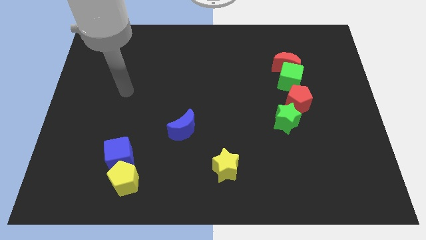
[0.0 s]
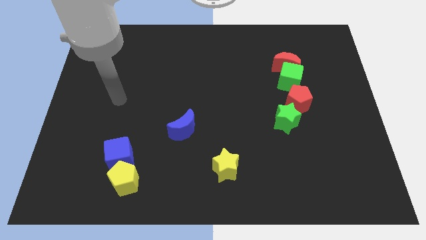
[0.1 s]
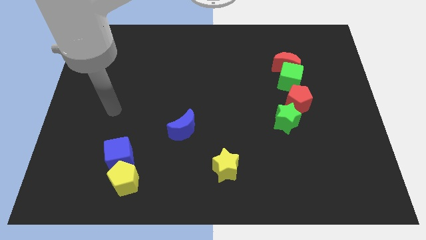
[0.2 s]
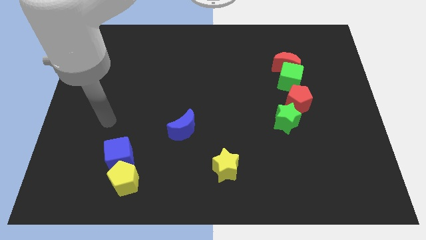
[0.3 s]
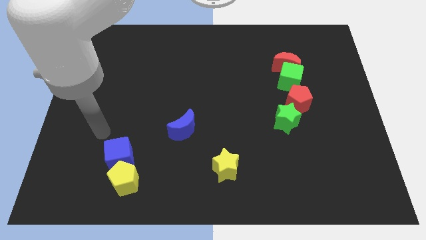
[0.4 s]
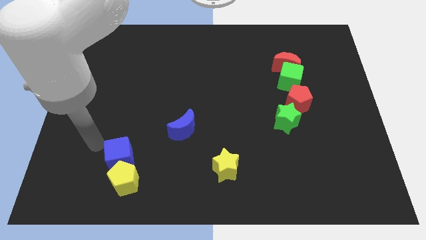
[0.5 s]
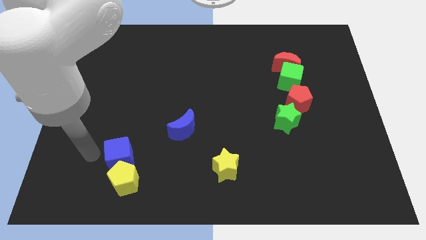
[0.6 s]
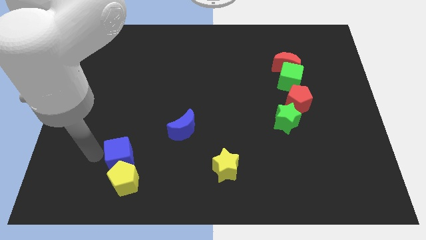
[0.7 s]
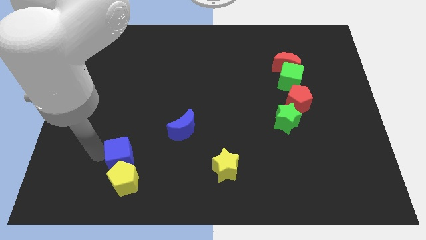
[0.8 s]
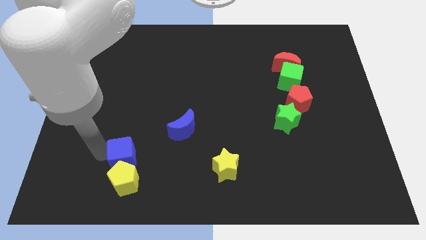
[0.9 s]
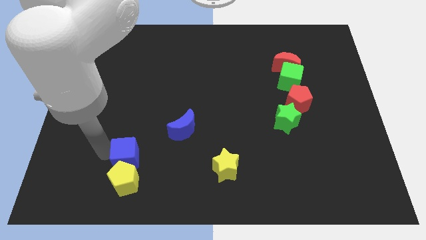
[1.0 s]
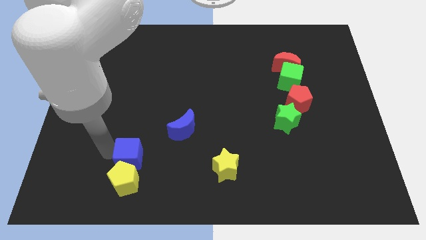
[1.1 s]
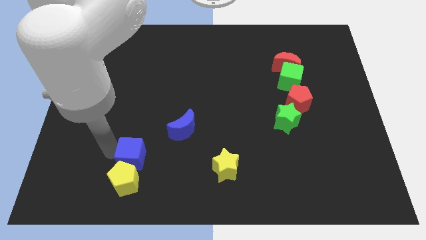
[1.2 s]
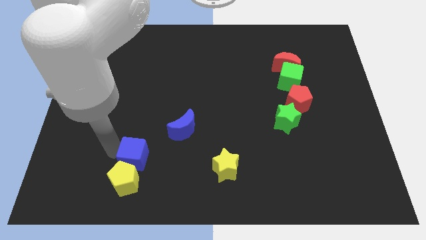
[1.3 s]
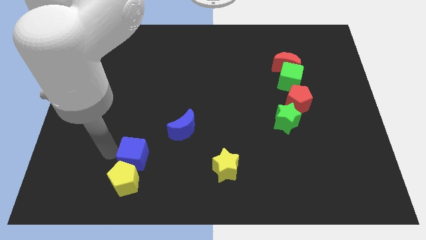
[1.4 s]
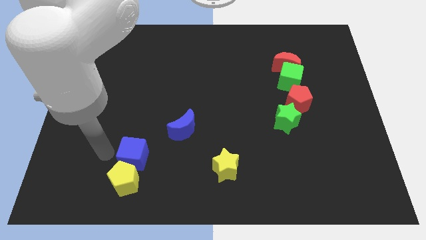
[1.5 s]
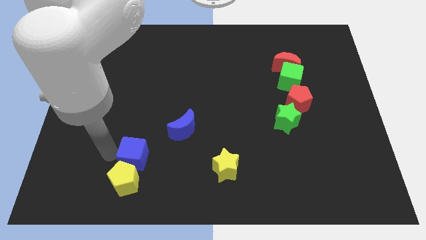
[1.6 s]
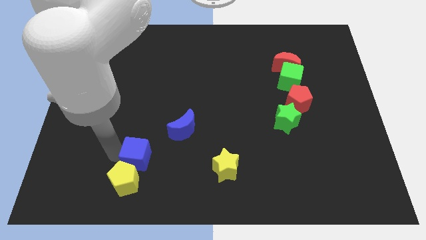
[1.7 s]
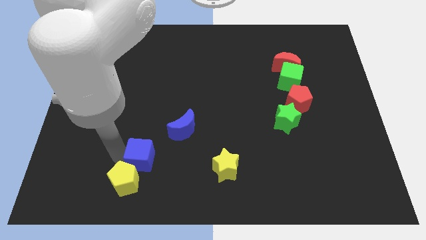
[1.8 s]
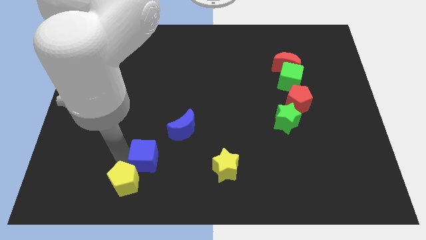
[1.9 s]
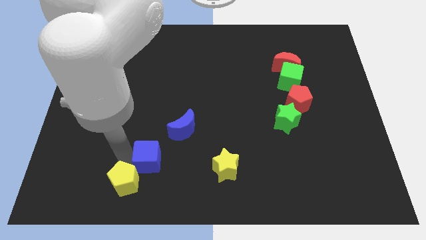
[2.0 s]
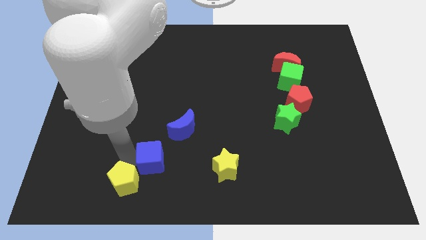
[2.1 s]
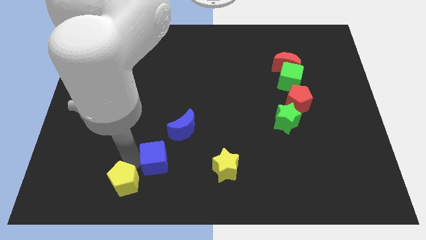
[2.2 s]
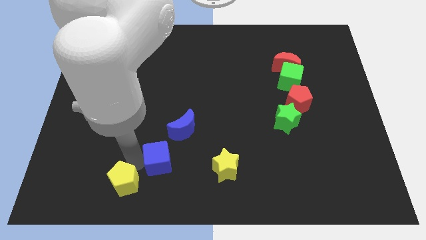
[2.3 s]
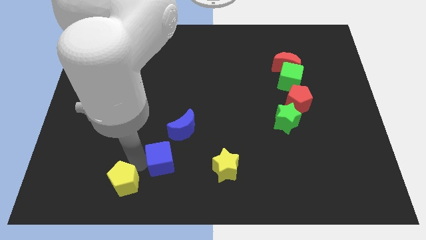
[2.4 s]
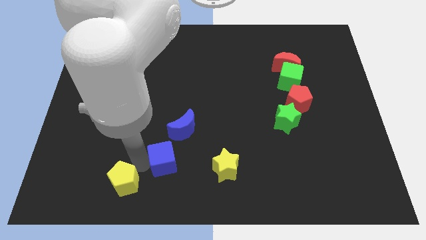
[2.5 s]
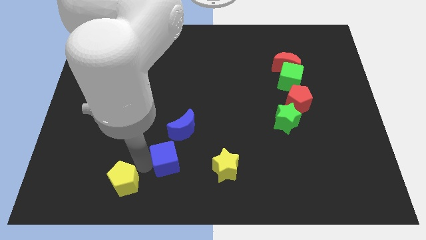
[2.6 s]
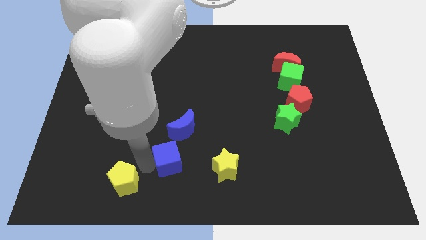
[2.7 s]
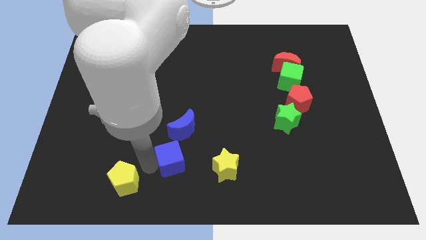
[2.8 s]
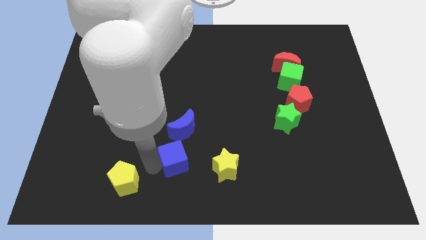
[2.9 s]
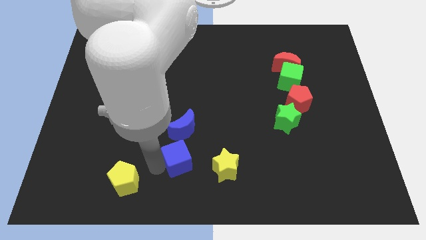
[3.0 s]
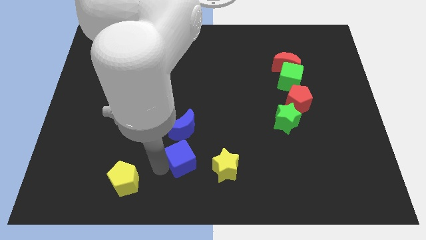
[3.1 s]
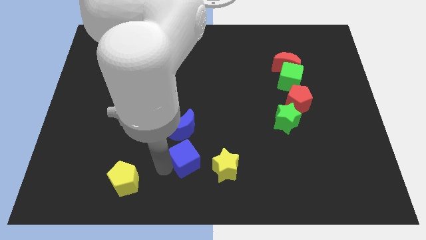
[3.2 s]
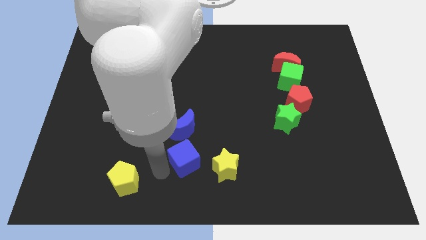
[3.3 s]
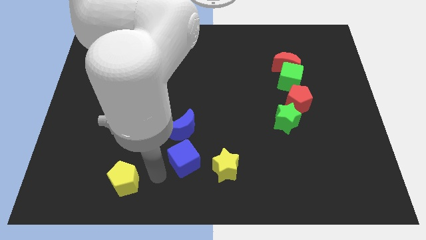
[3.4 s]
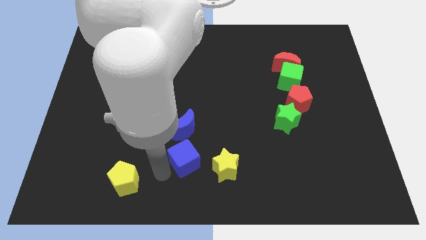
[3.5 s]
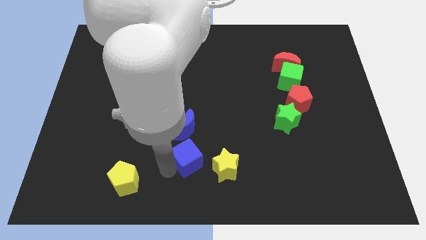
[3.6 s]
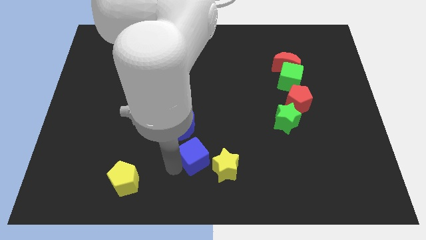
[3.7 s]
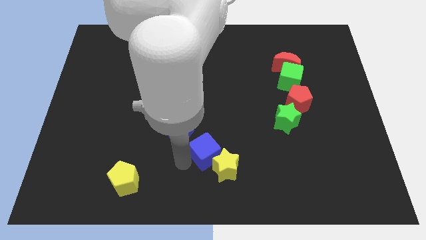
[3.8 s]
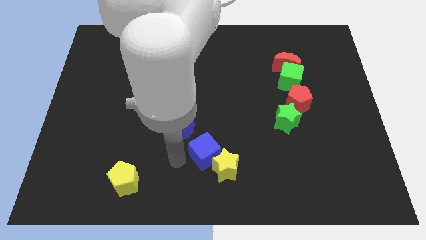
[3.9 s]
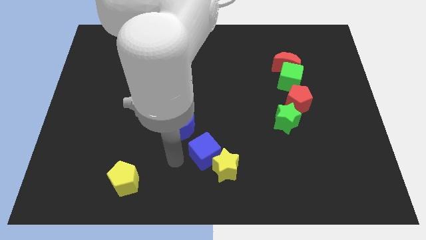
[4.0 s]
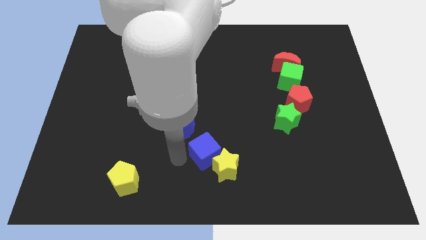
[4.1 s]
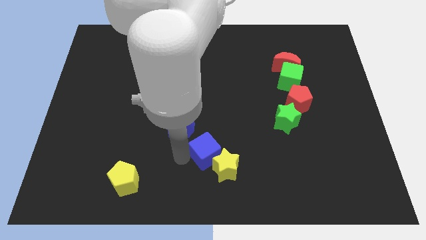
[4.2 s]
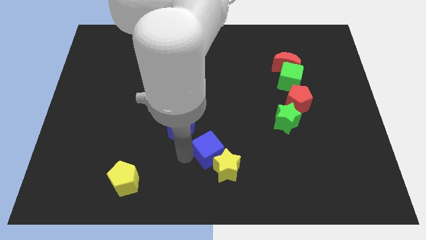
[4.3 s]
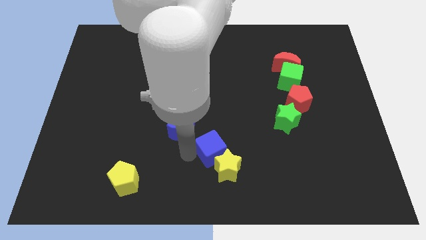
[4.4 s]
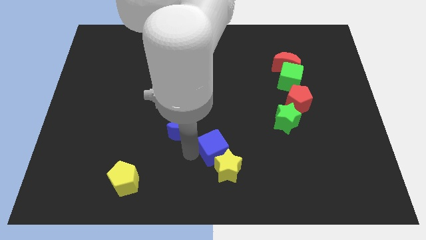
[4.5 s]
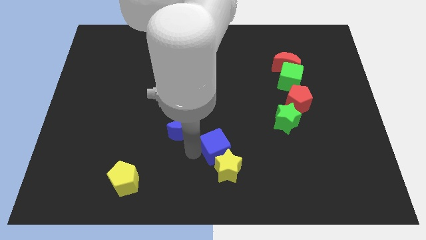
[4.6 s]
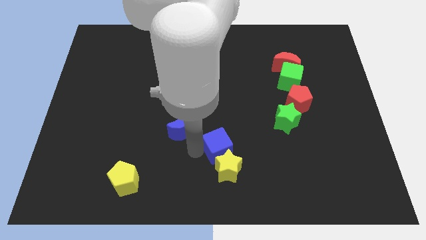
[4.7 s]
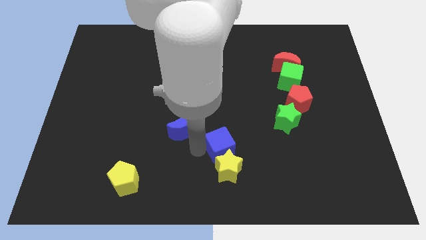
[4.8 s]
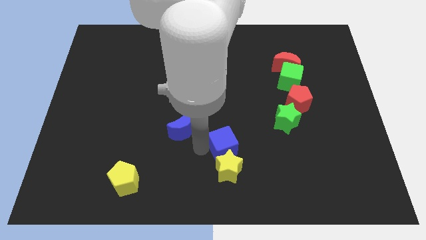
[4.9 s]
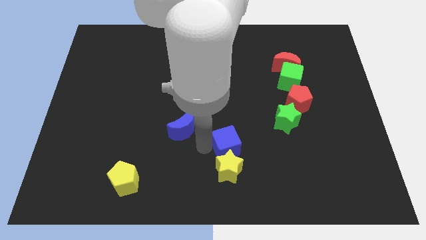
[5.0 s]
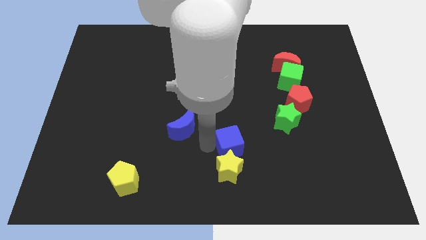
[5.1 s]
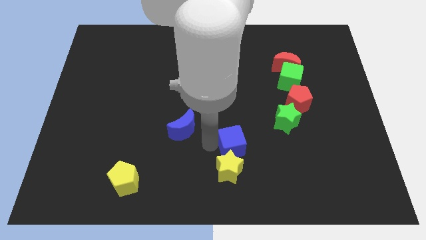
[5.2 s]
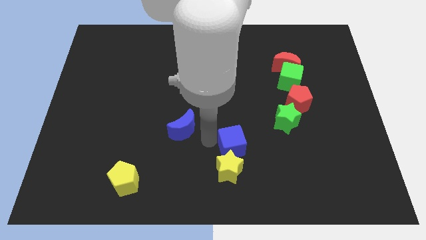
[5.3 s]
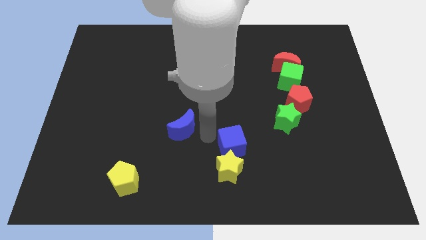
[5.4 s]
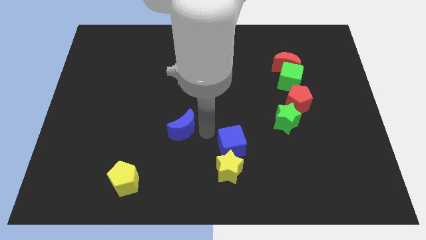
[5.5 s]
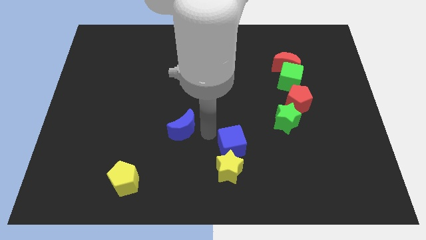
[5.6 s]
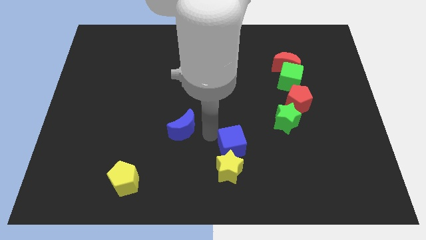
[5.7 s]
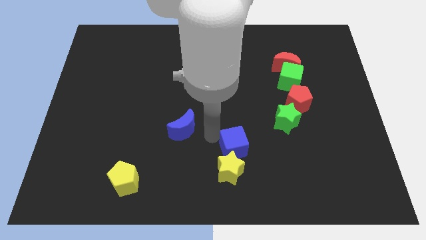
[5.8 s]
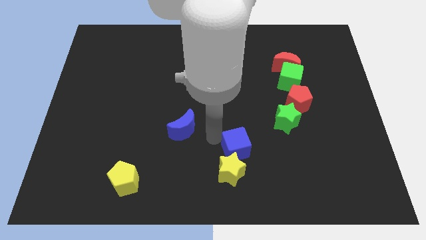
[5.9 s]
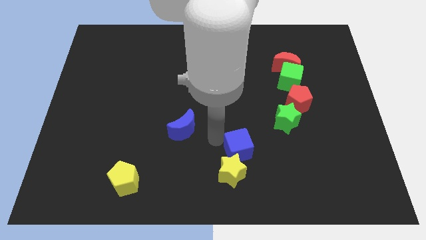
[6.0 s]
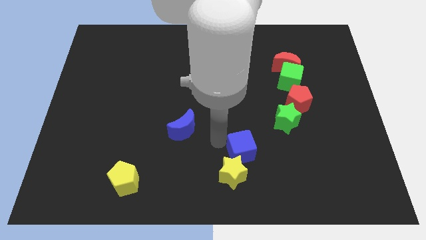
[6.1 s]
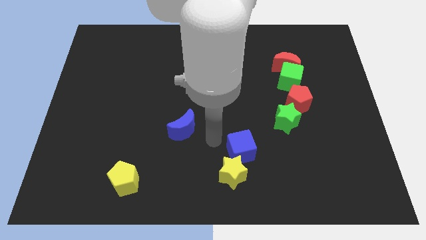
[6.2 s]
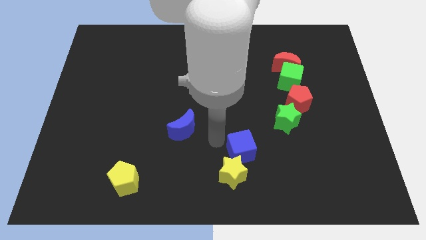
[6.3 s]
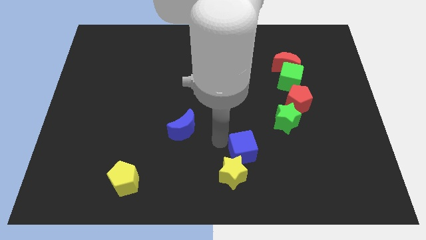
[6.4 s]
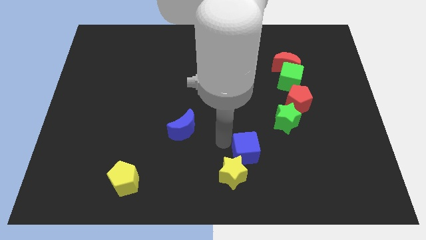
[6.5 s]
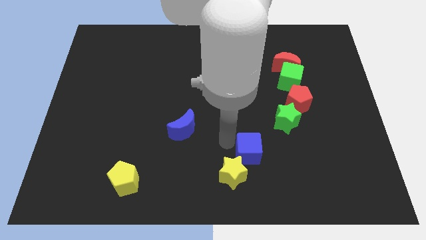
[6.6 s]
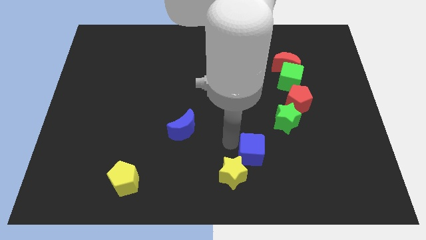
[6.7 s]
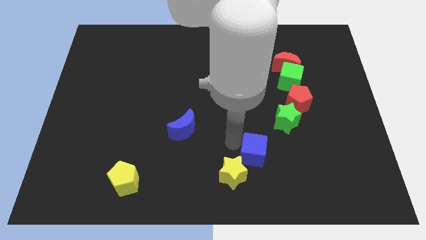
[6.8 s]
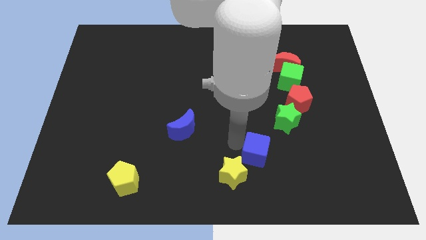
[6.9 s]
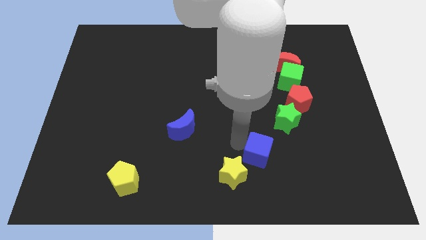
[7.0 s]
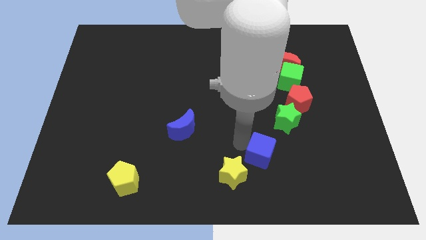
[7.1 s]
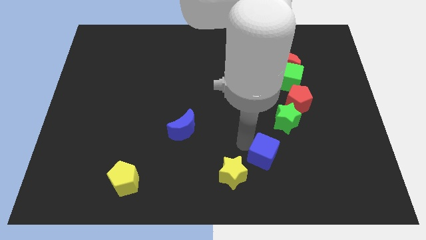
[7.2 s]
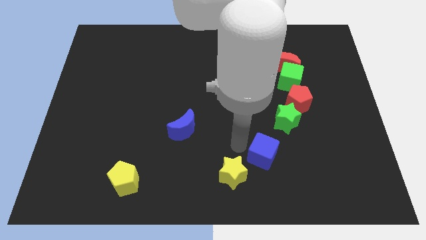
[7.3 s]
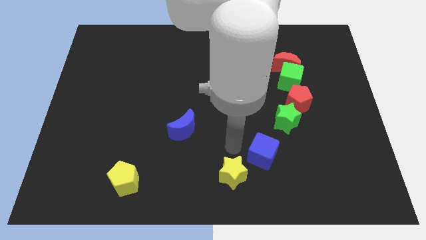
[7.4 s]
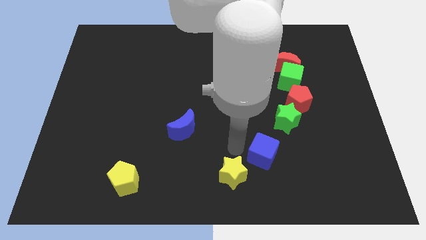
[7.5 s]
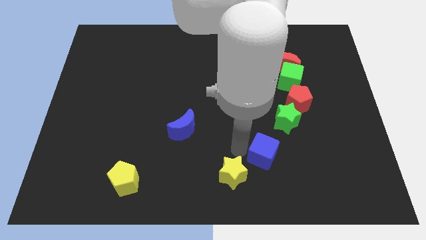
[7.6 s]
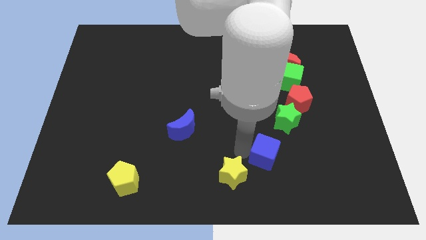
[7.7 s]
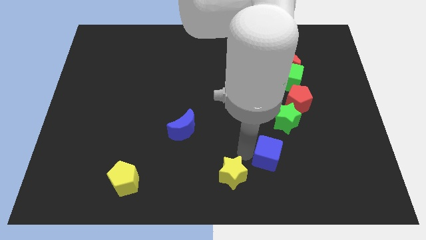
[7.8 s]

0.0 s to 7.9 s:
slide the blue cube to the bottom of the green star

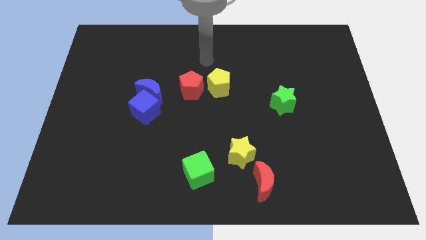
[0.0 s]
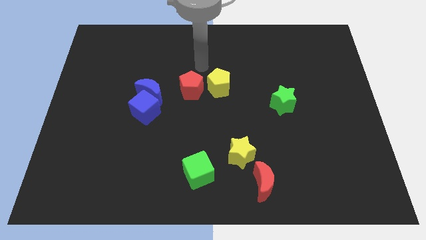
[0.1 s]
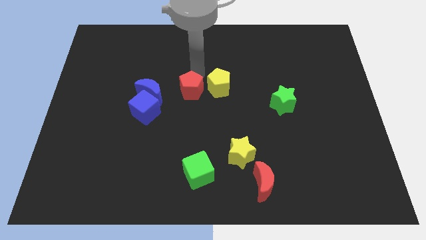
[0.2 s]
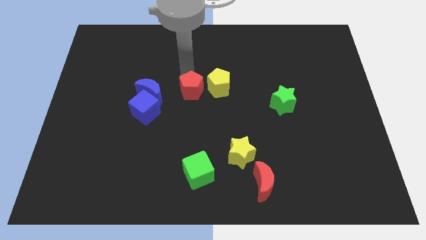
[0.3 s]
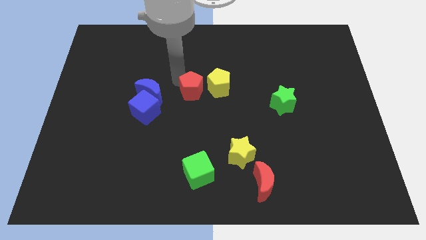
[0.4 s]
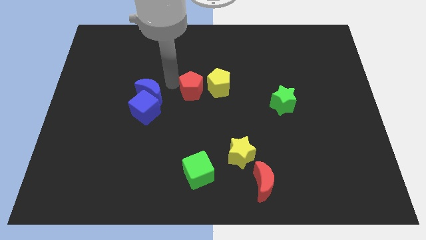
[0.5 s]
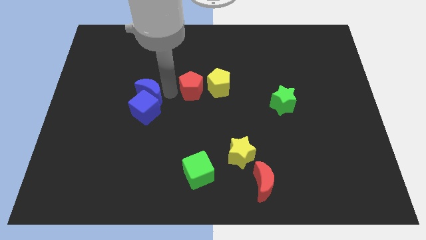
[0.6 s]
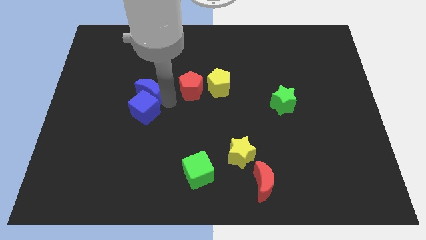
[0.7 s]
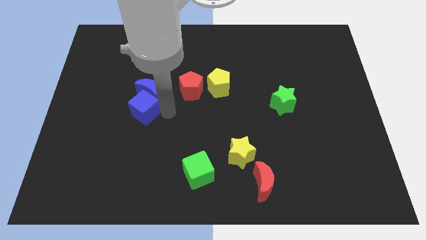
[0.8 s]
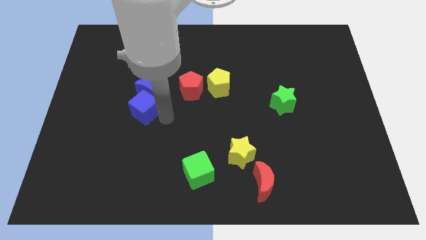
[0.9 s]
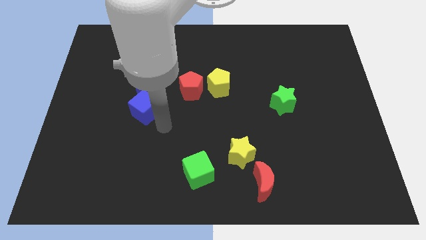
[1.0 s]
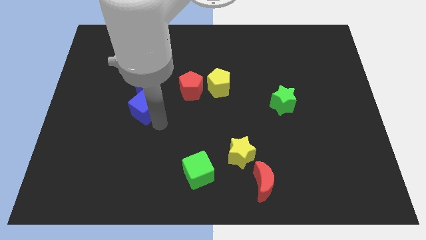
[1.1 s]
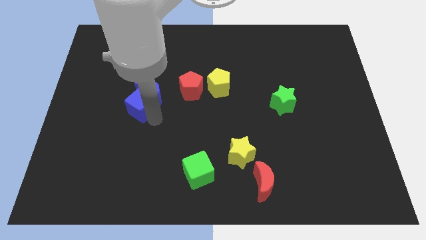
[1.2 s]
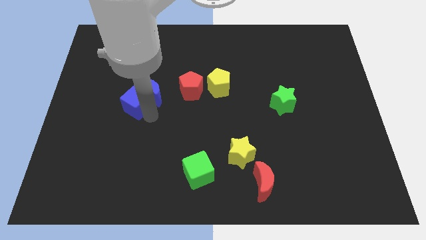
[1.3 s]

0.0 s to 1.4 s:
push the blue cube left of the red pentagon
